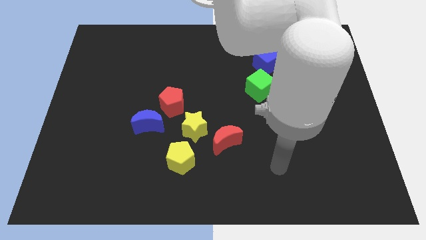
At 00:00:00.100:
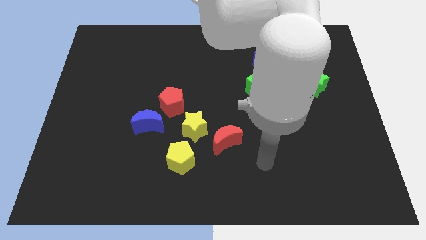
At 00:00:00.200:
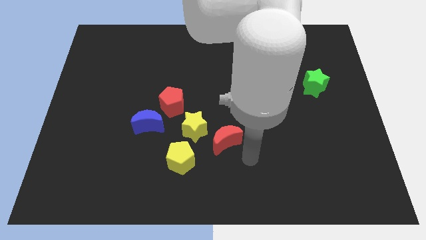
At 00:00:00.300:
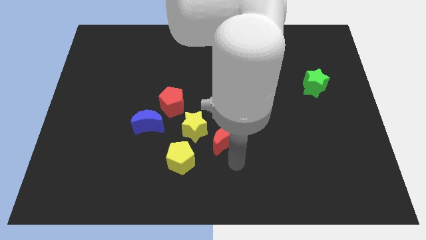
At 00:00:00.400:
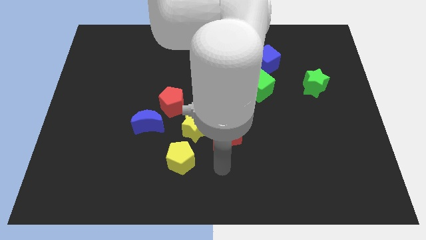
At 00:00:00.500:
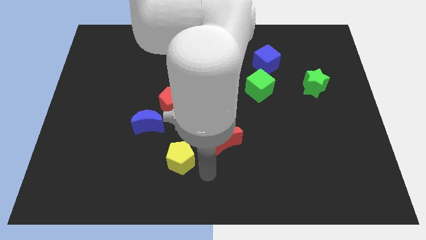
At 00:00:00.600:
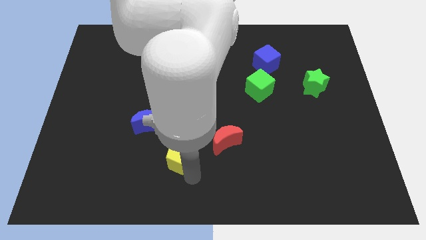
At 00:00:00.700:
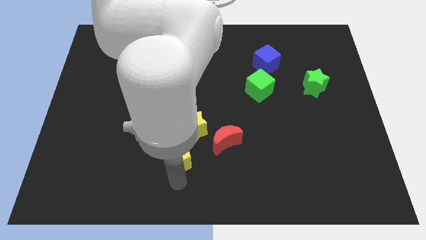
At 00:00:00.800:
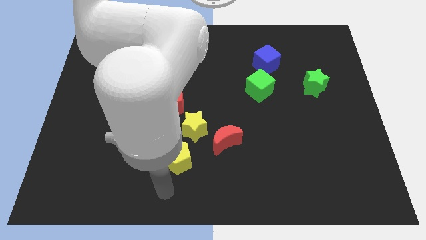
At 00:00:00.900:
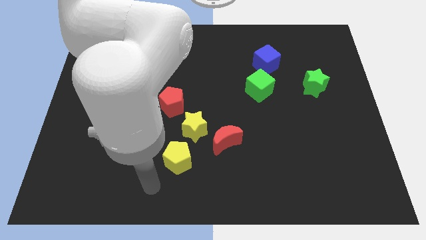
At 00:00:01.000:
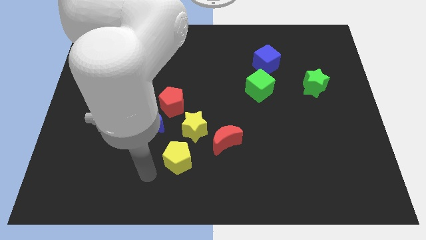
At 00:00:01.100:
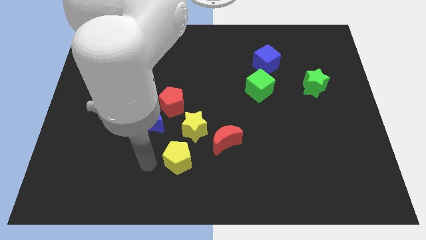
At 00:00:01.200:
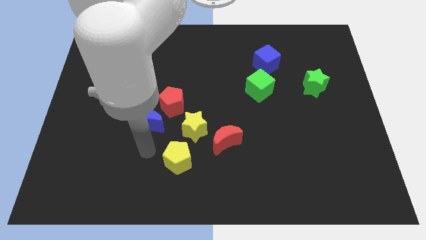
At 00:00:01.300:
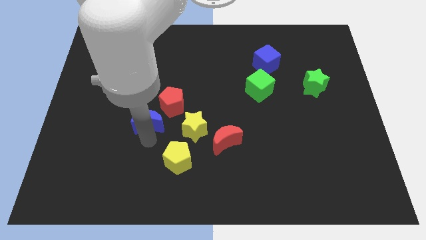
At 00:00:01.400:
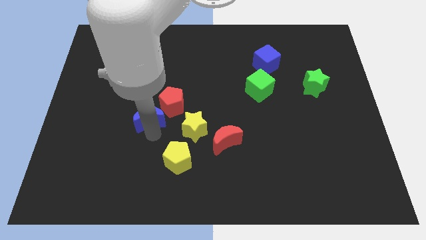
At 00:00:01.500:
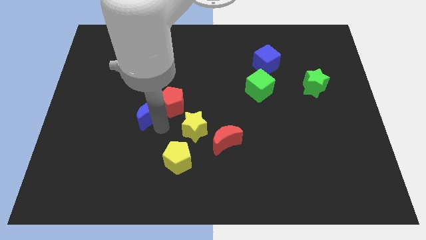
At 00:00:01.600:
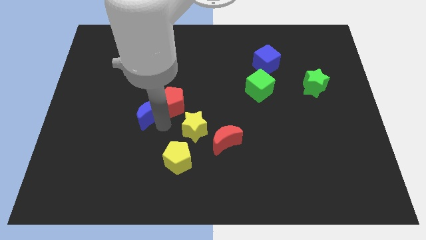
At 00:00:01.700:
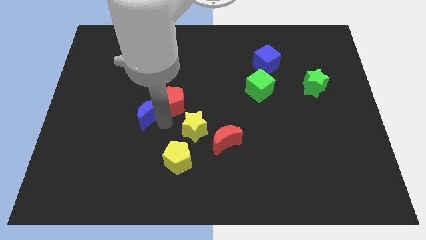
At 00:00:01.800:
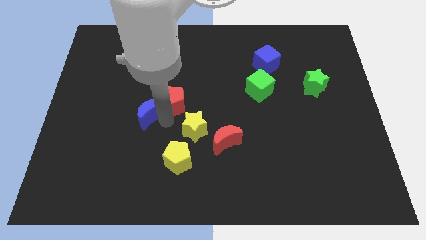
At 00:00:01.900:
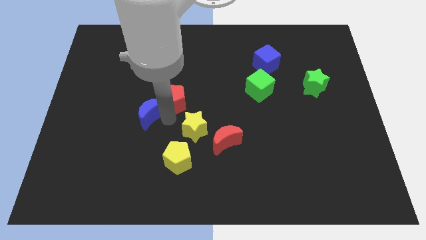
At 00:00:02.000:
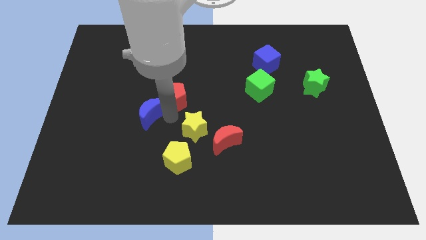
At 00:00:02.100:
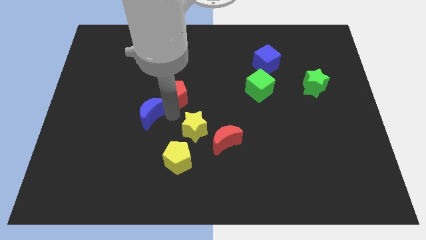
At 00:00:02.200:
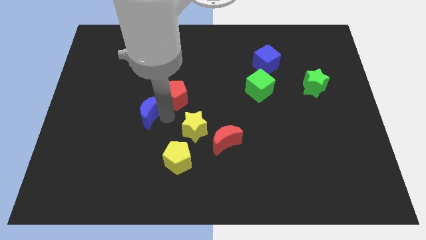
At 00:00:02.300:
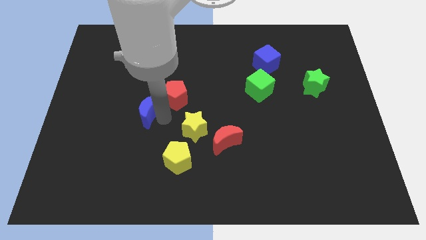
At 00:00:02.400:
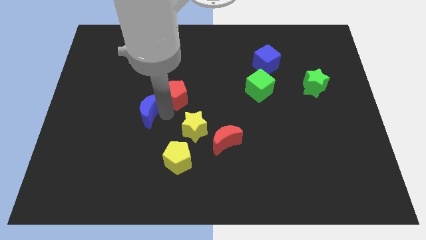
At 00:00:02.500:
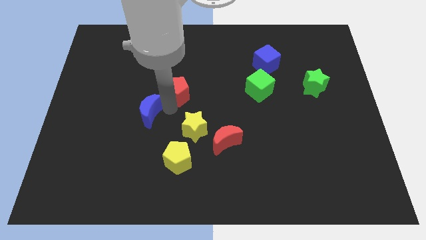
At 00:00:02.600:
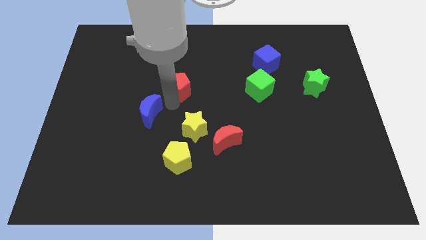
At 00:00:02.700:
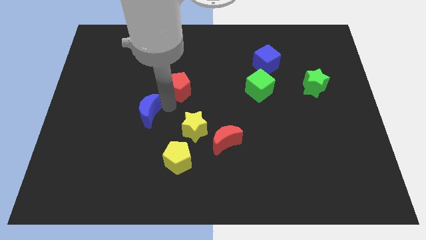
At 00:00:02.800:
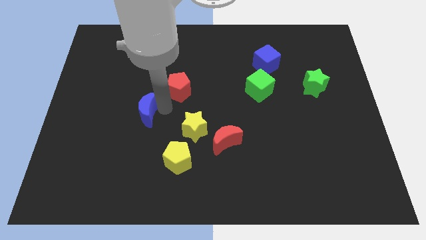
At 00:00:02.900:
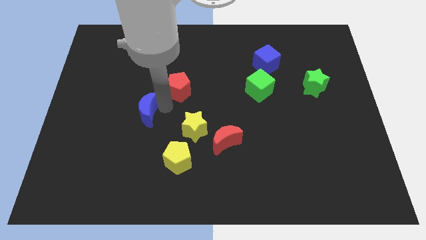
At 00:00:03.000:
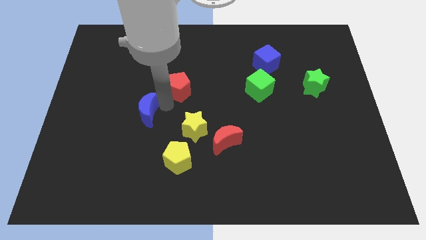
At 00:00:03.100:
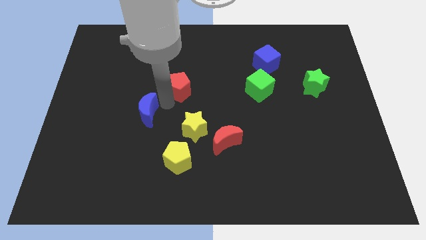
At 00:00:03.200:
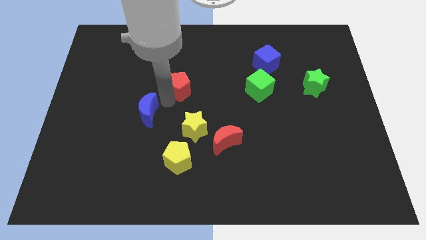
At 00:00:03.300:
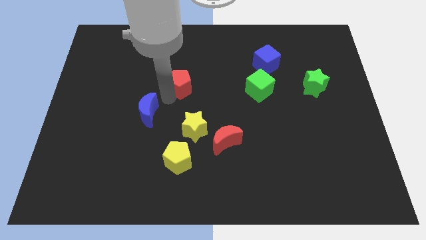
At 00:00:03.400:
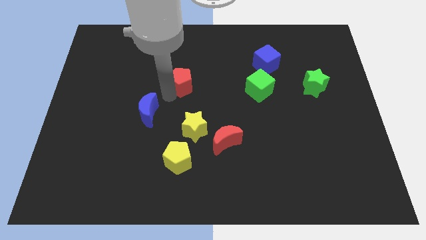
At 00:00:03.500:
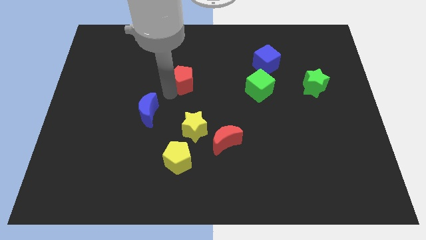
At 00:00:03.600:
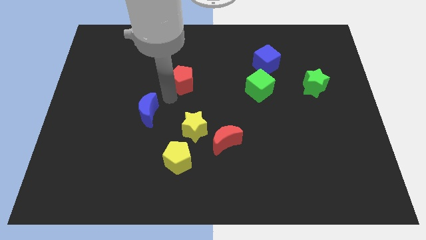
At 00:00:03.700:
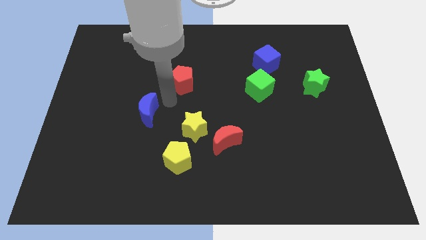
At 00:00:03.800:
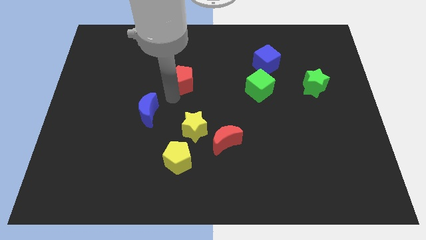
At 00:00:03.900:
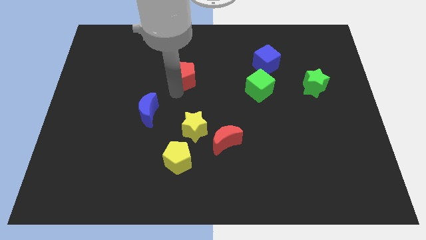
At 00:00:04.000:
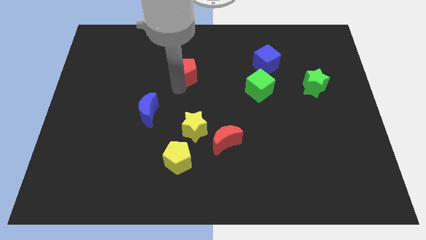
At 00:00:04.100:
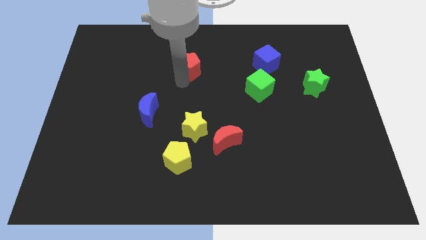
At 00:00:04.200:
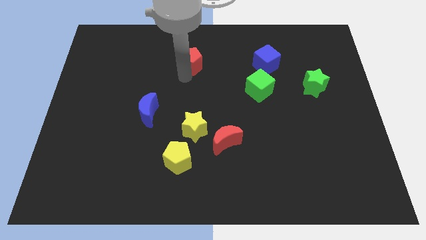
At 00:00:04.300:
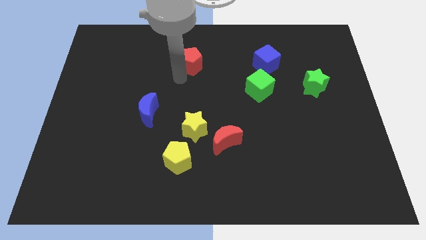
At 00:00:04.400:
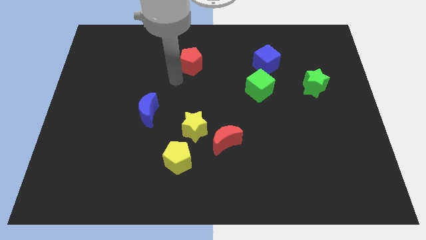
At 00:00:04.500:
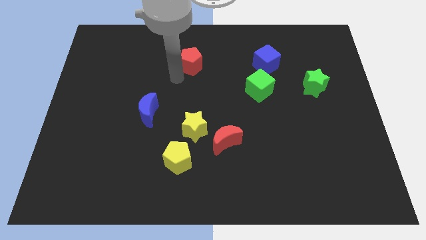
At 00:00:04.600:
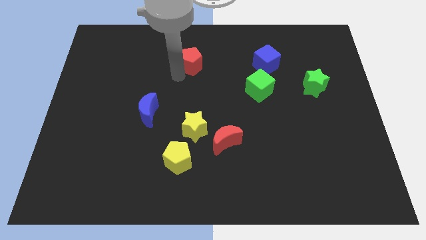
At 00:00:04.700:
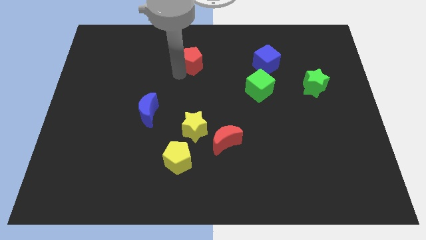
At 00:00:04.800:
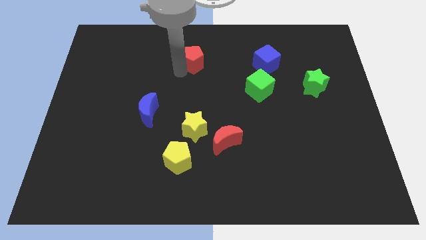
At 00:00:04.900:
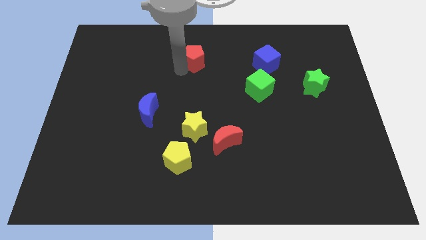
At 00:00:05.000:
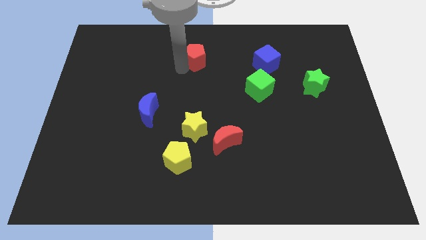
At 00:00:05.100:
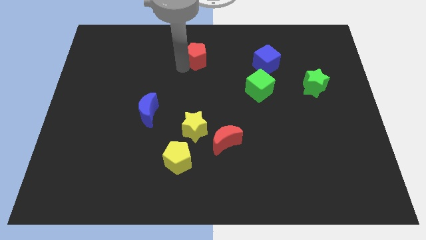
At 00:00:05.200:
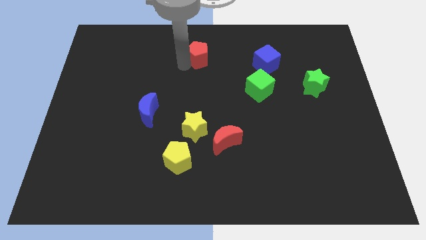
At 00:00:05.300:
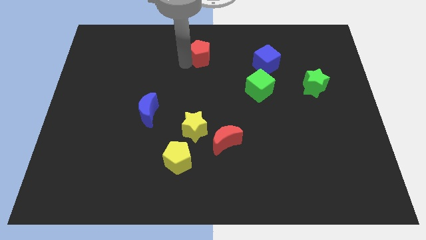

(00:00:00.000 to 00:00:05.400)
put the red pentagon to the top

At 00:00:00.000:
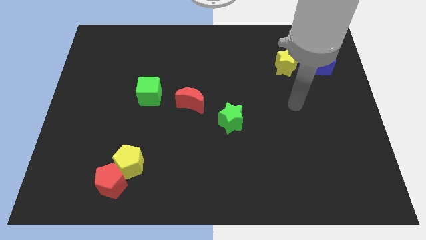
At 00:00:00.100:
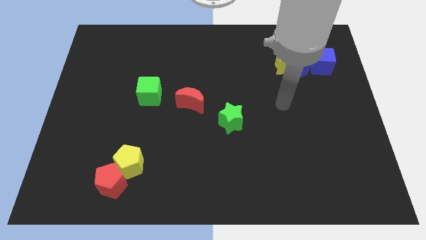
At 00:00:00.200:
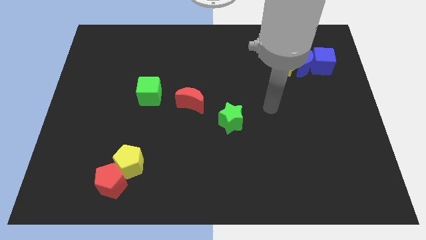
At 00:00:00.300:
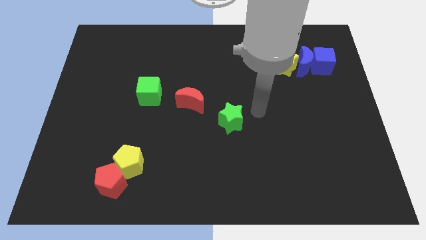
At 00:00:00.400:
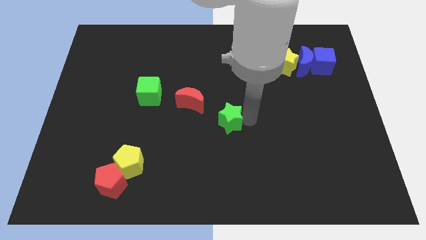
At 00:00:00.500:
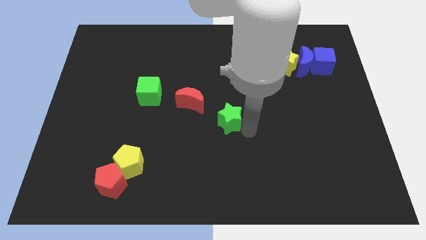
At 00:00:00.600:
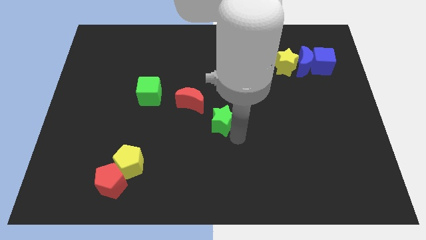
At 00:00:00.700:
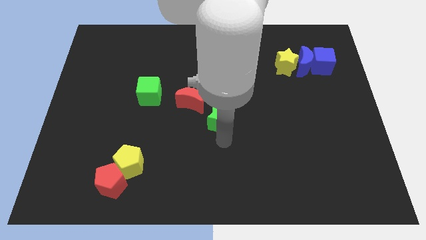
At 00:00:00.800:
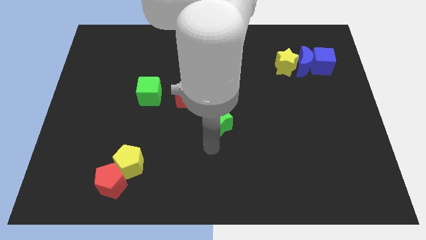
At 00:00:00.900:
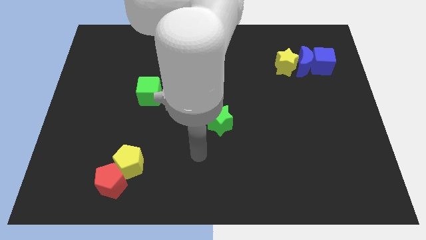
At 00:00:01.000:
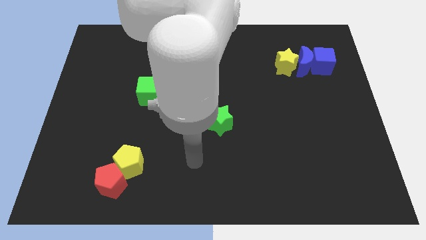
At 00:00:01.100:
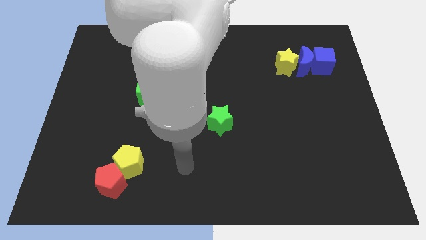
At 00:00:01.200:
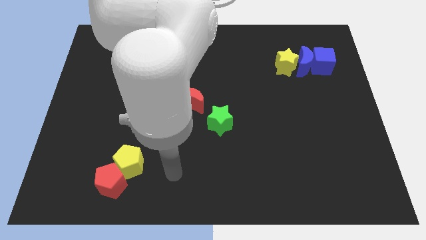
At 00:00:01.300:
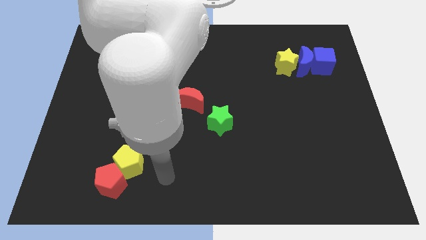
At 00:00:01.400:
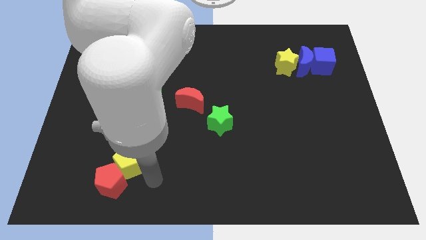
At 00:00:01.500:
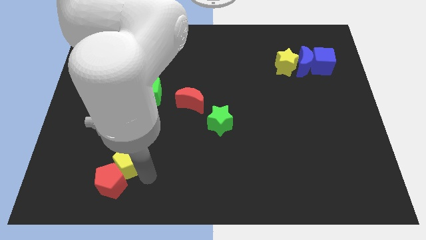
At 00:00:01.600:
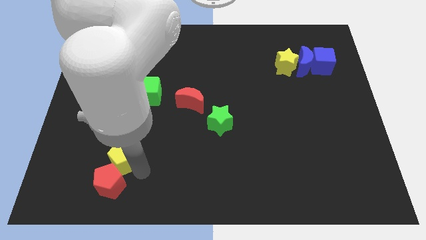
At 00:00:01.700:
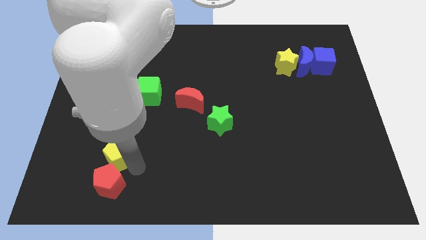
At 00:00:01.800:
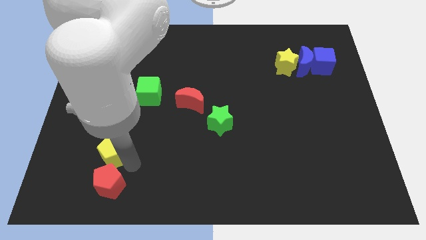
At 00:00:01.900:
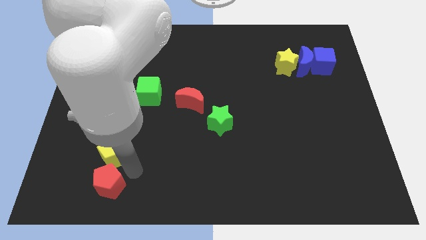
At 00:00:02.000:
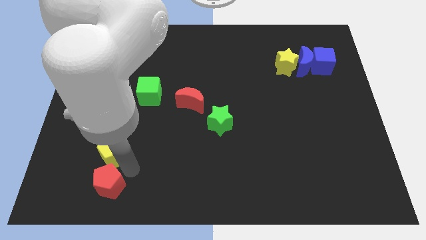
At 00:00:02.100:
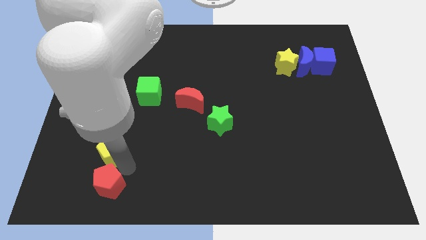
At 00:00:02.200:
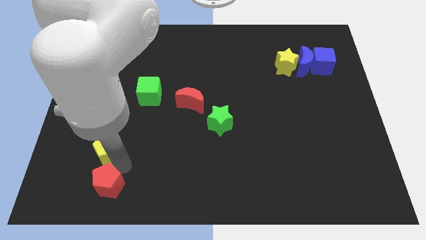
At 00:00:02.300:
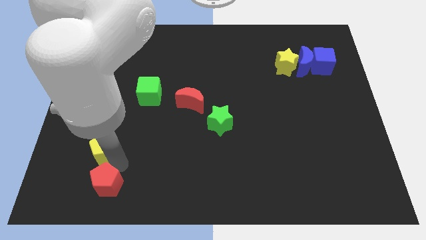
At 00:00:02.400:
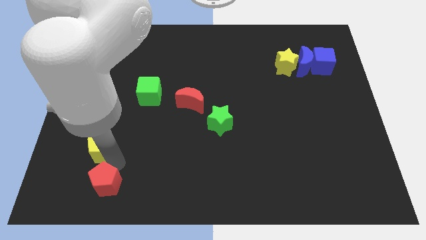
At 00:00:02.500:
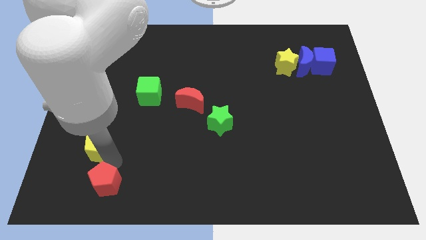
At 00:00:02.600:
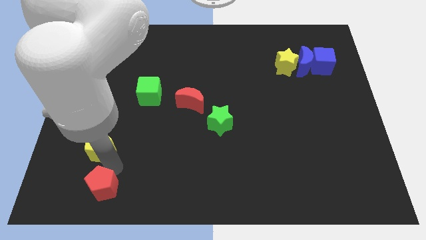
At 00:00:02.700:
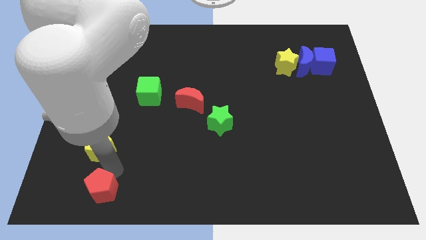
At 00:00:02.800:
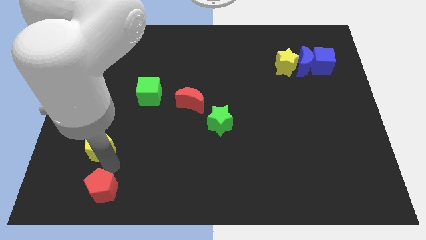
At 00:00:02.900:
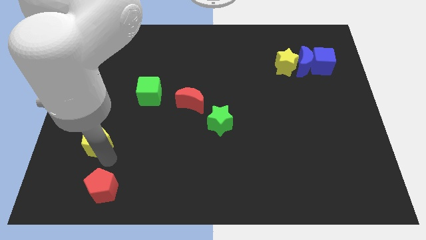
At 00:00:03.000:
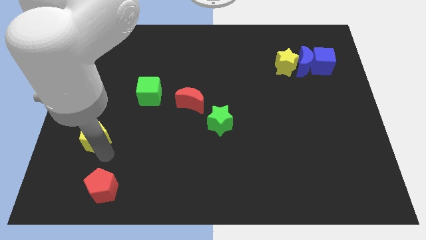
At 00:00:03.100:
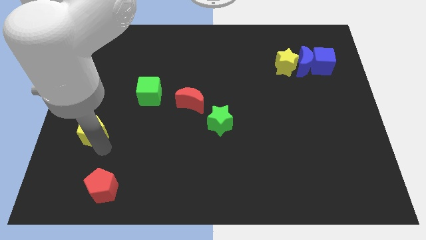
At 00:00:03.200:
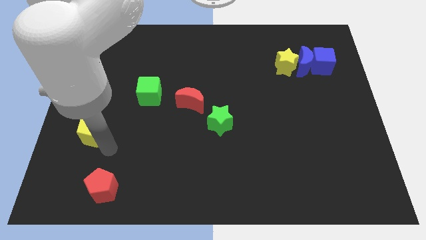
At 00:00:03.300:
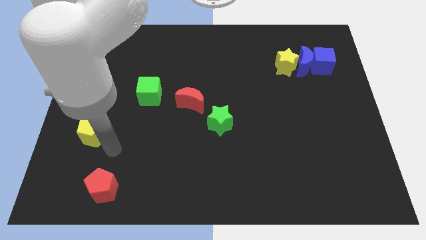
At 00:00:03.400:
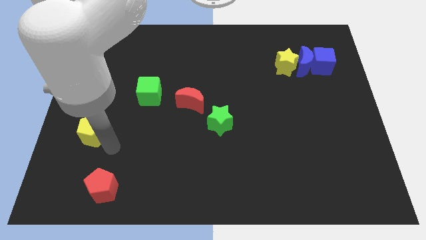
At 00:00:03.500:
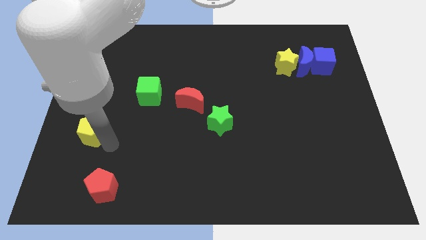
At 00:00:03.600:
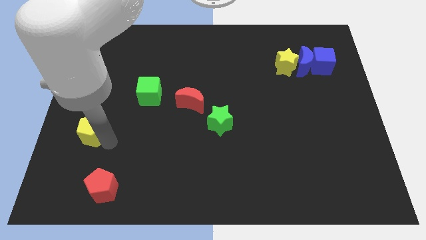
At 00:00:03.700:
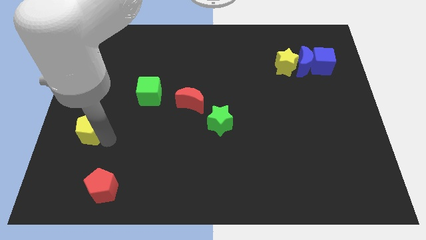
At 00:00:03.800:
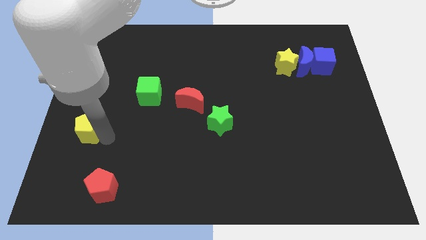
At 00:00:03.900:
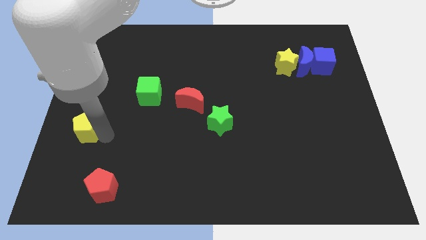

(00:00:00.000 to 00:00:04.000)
move the yellow pentagon to the center left
